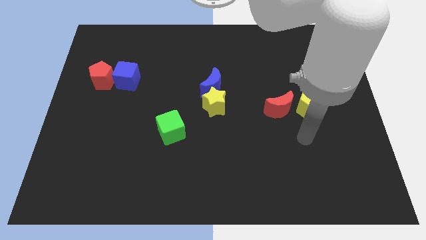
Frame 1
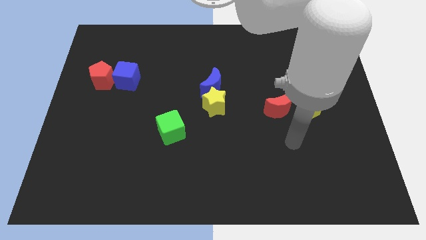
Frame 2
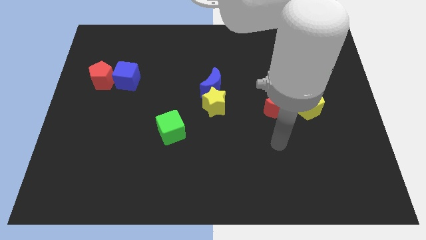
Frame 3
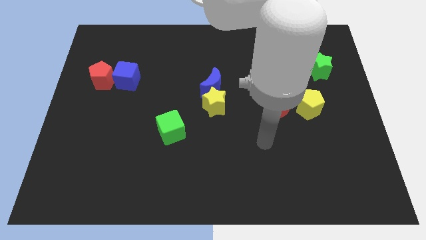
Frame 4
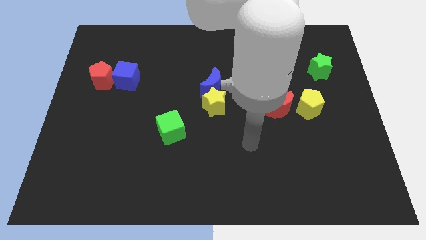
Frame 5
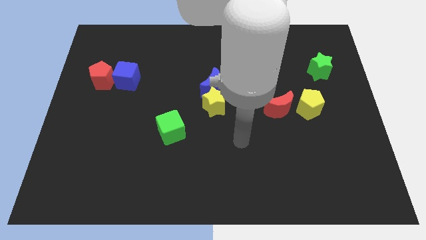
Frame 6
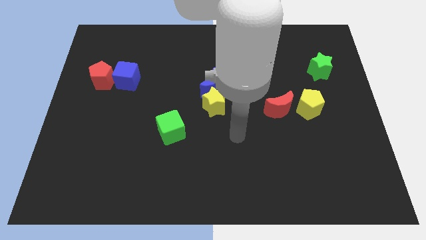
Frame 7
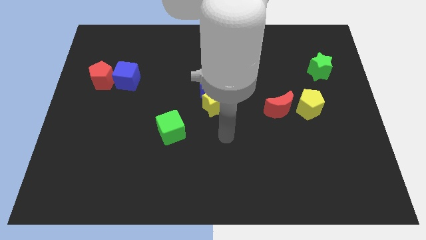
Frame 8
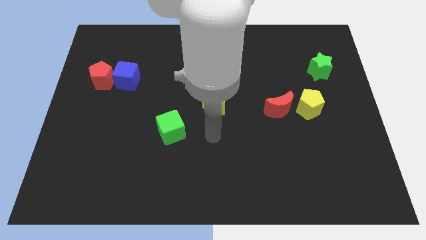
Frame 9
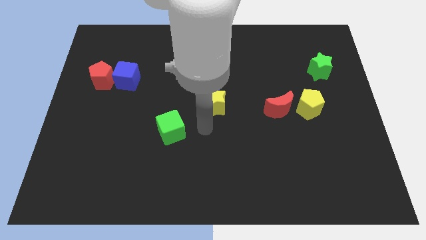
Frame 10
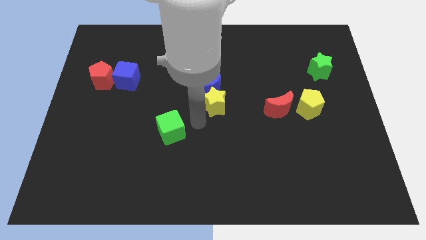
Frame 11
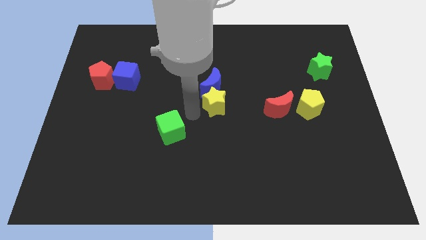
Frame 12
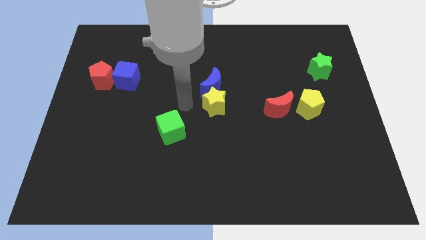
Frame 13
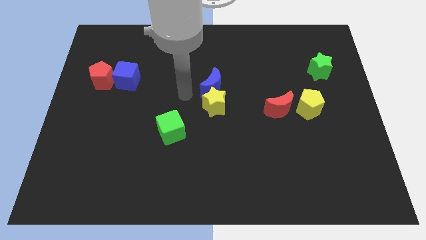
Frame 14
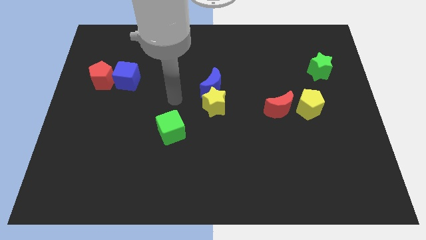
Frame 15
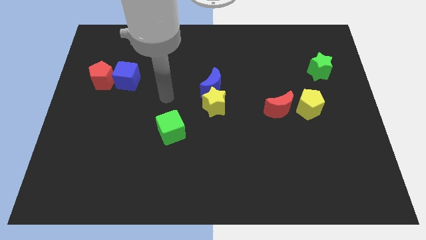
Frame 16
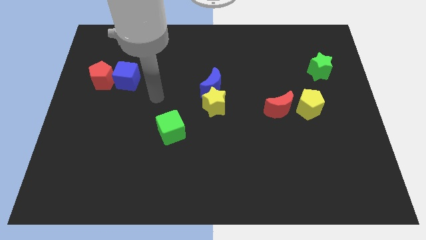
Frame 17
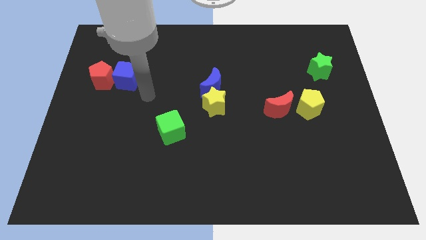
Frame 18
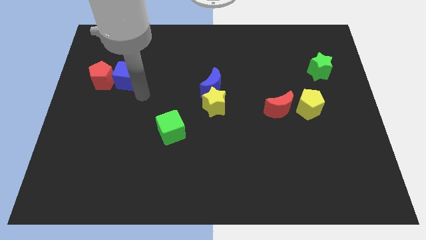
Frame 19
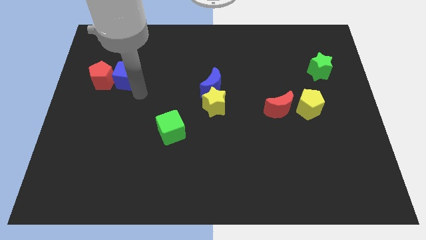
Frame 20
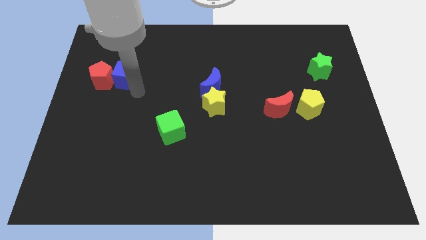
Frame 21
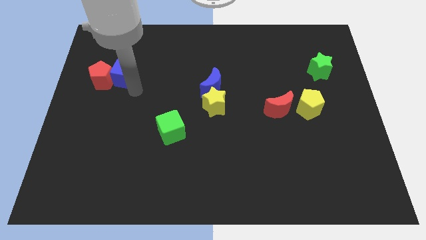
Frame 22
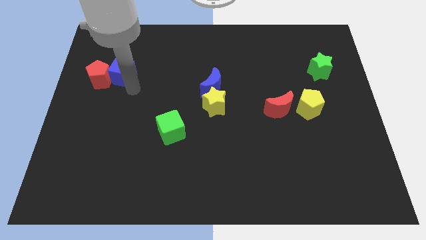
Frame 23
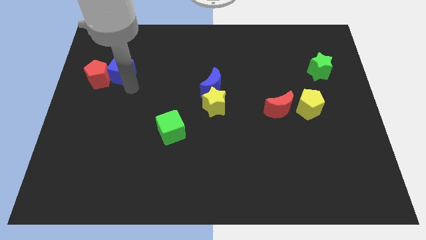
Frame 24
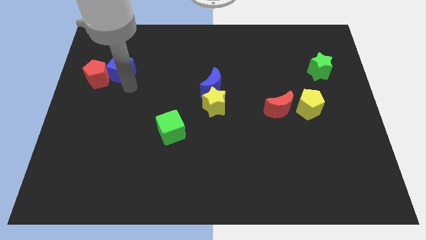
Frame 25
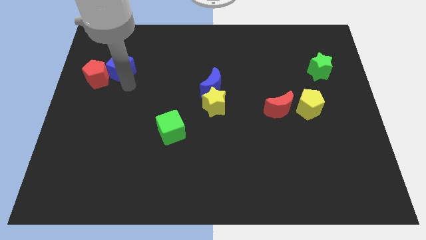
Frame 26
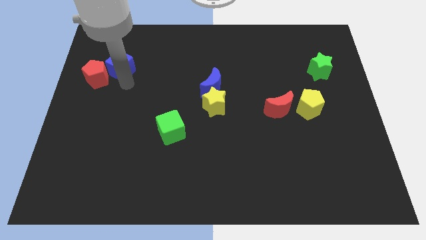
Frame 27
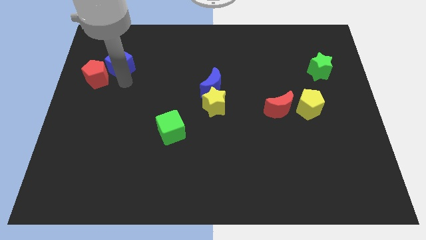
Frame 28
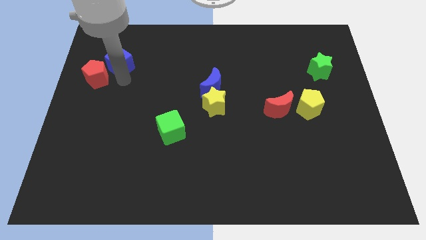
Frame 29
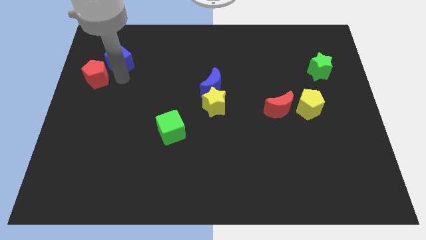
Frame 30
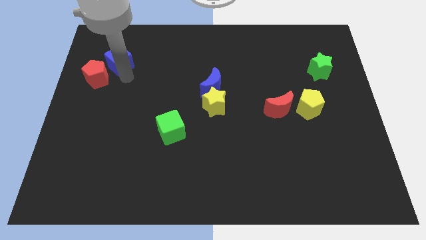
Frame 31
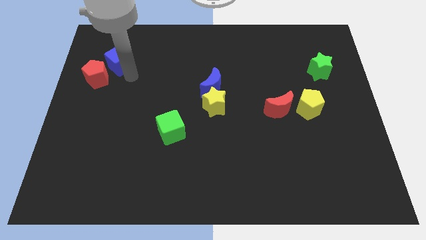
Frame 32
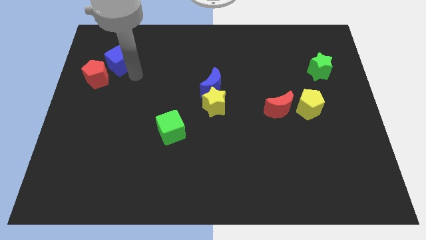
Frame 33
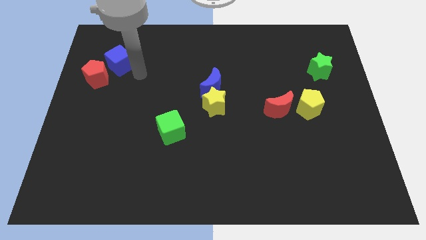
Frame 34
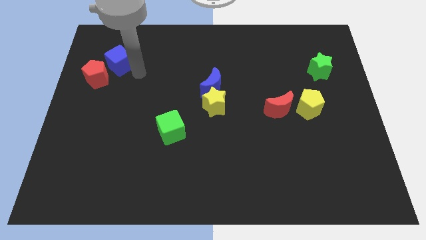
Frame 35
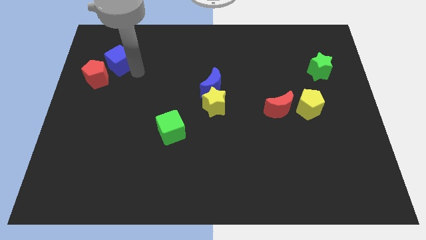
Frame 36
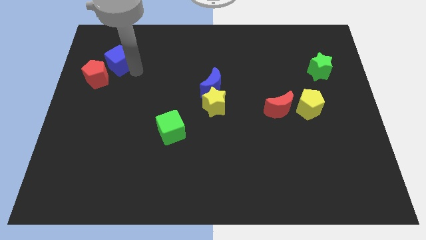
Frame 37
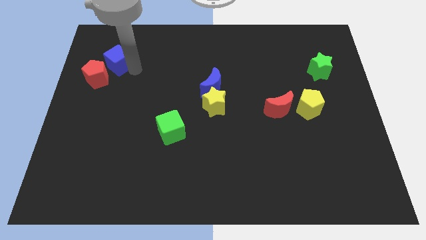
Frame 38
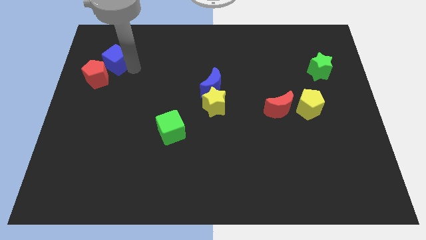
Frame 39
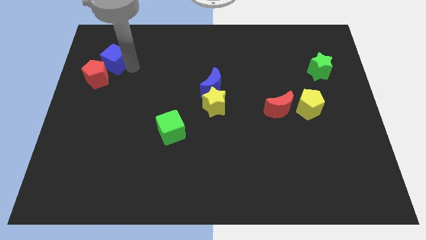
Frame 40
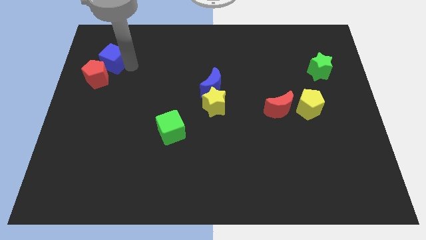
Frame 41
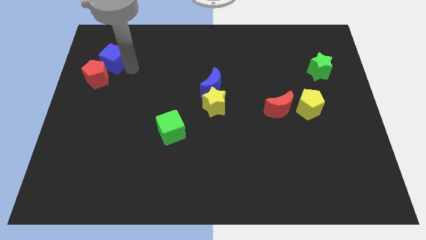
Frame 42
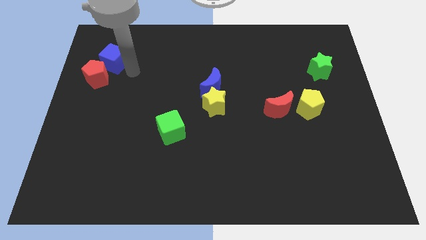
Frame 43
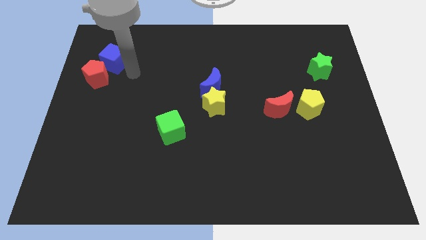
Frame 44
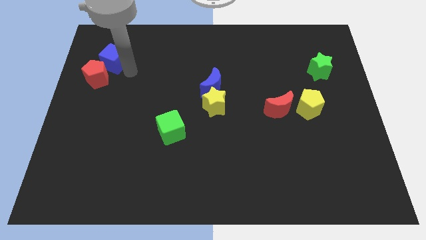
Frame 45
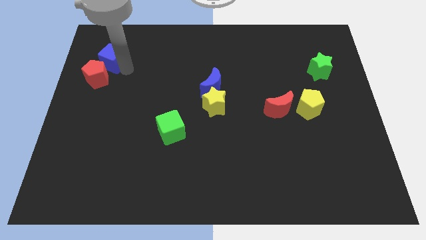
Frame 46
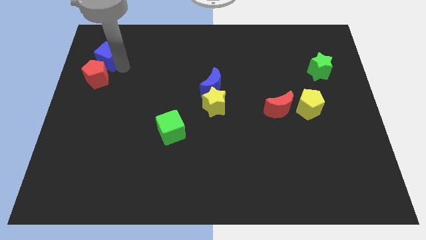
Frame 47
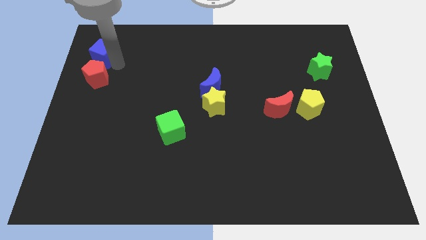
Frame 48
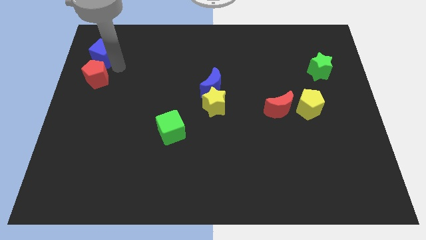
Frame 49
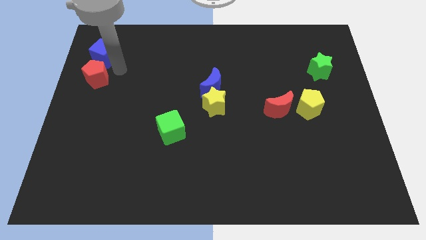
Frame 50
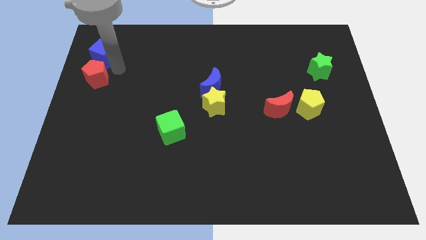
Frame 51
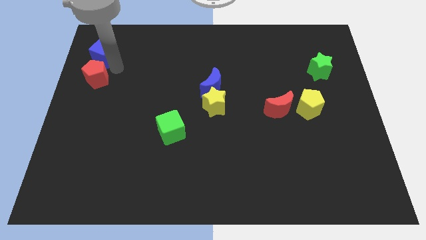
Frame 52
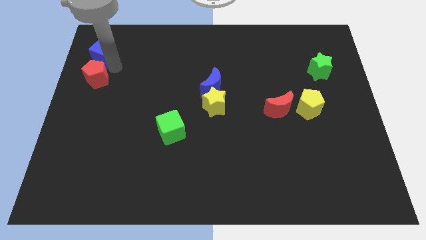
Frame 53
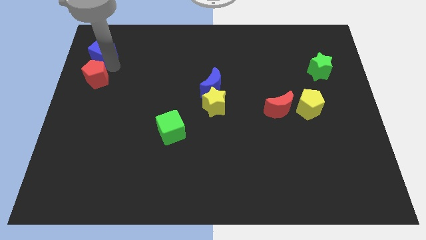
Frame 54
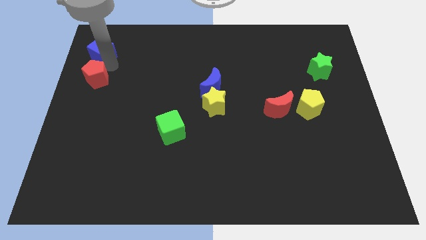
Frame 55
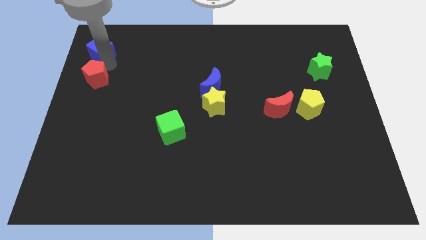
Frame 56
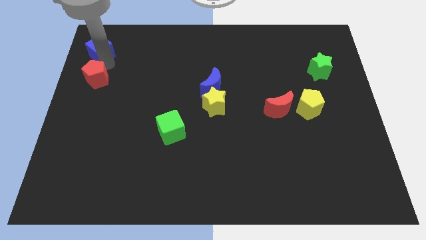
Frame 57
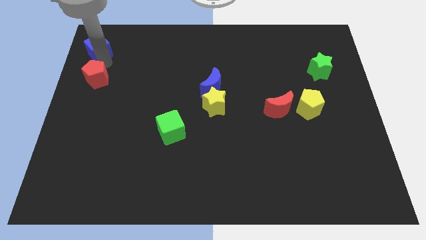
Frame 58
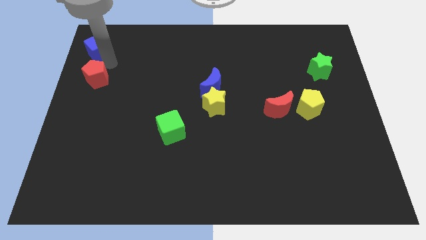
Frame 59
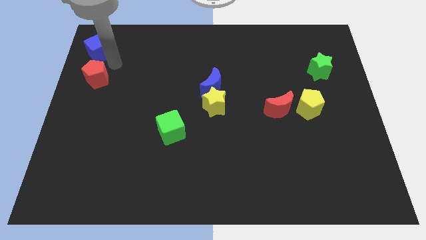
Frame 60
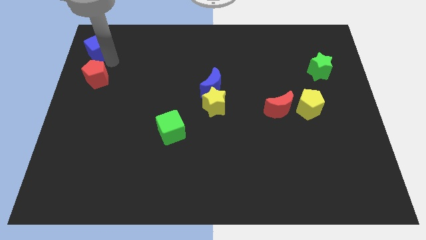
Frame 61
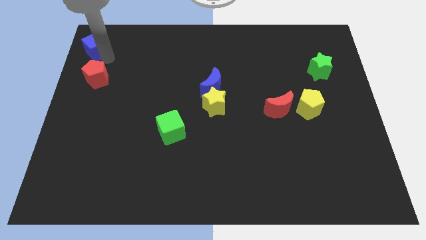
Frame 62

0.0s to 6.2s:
move the blue cube to the top left of the board

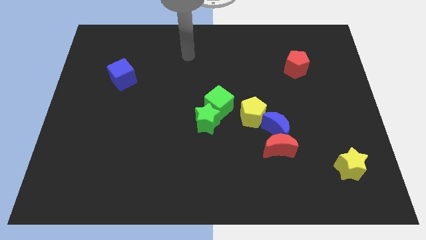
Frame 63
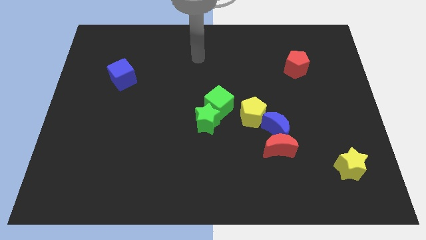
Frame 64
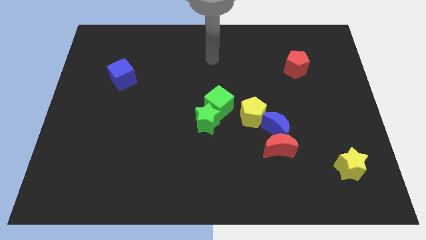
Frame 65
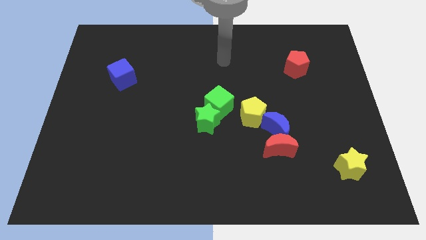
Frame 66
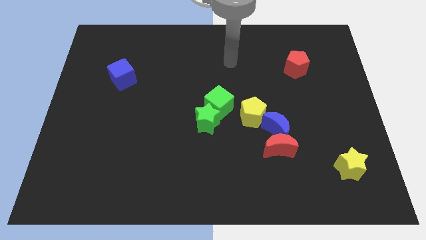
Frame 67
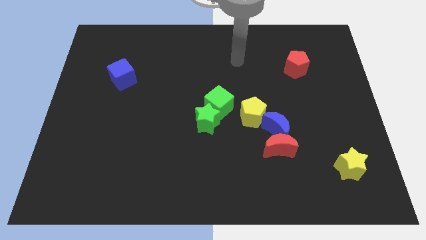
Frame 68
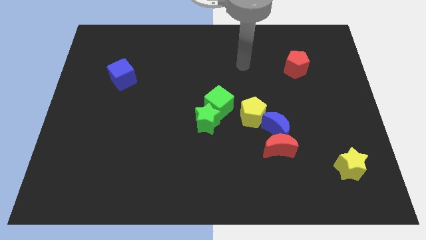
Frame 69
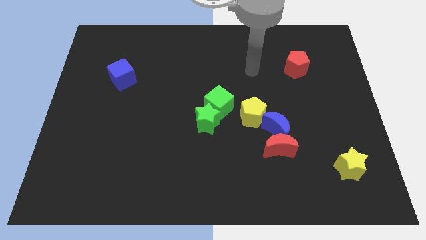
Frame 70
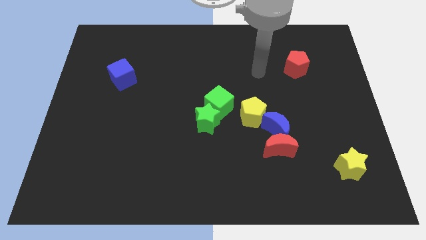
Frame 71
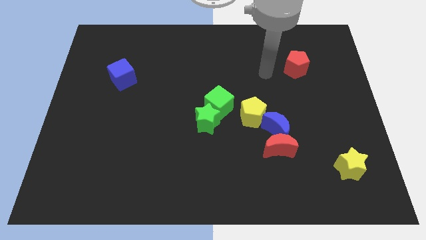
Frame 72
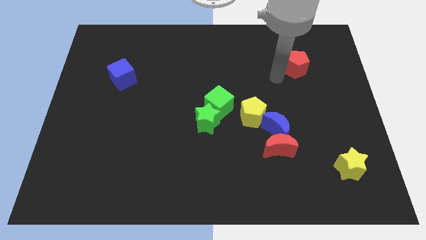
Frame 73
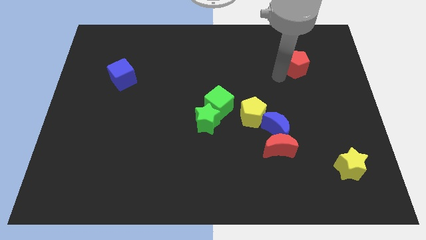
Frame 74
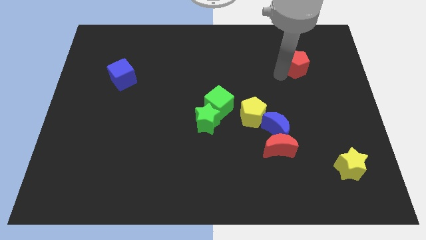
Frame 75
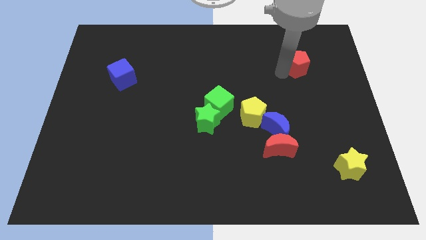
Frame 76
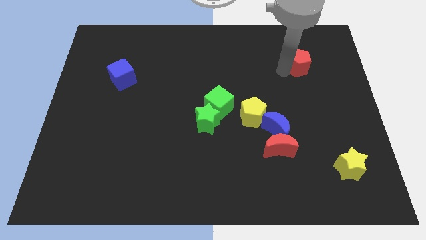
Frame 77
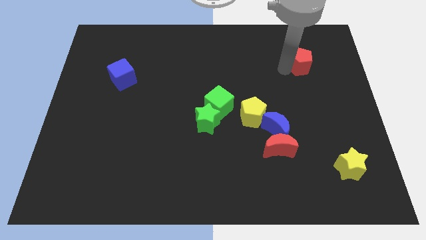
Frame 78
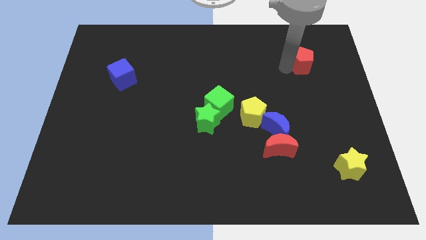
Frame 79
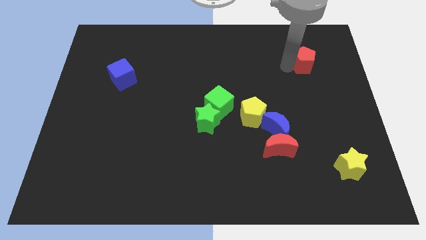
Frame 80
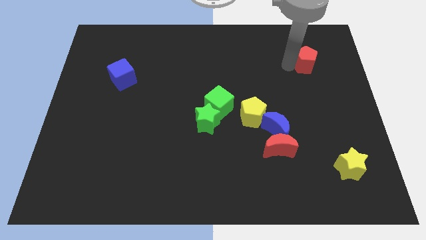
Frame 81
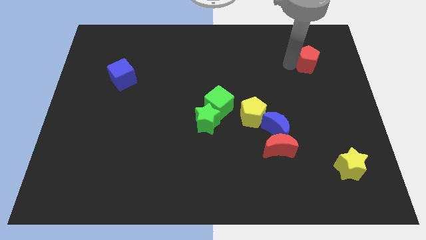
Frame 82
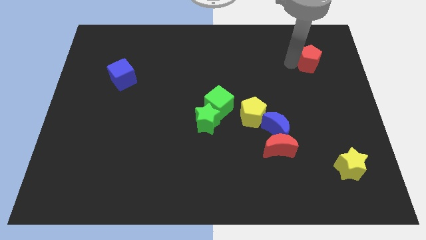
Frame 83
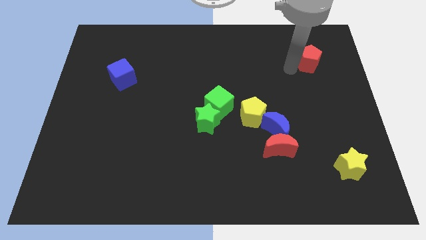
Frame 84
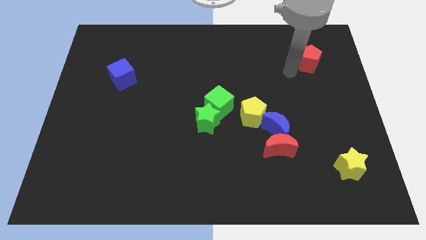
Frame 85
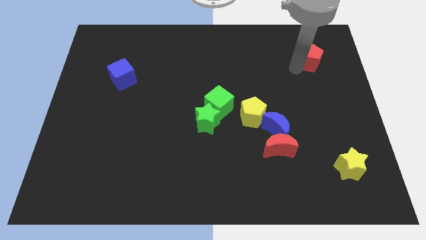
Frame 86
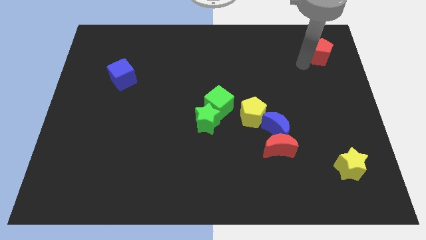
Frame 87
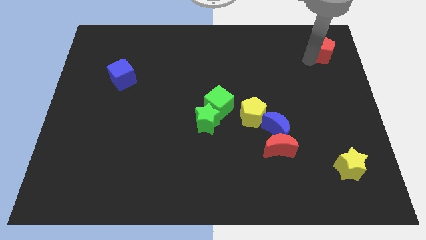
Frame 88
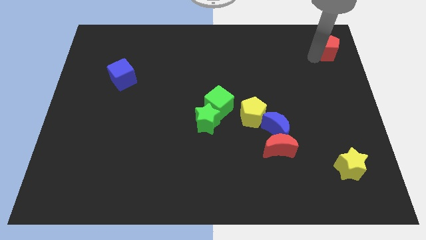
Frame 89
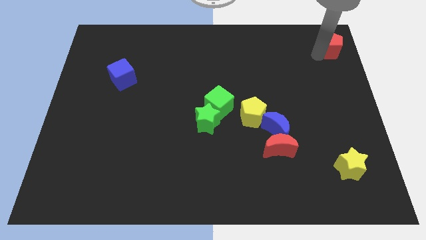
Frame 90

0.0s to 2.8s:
move the red pentagon to the upper right corner
